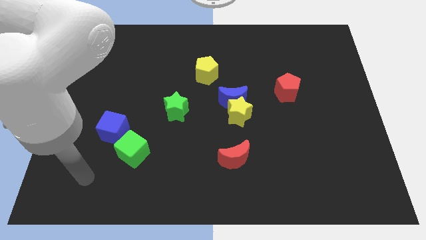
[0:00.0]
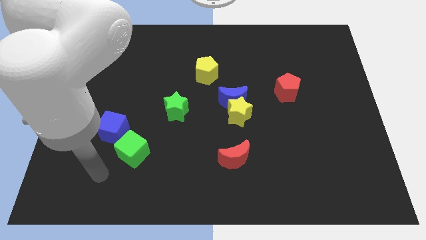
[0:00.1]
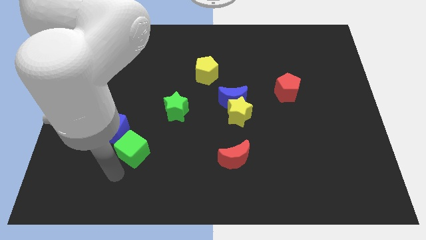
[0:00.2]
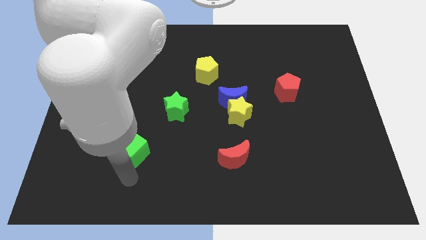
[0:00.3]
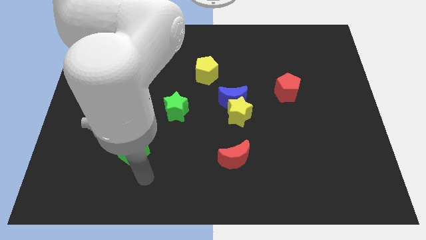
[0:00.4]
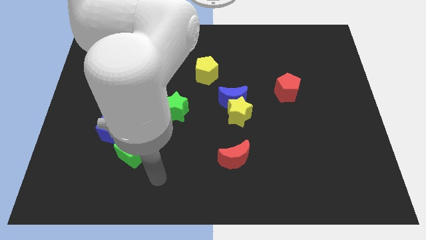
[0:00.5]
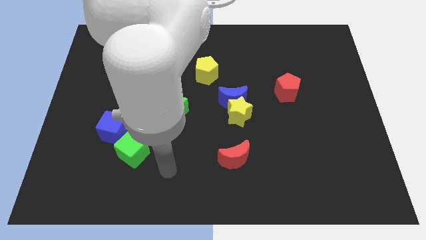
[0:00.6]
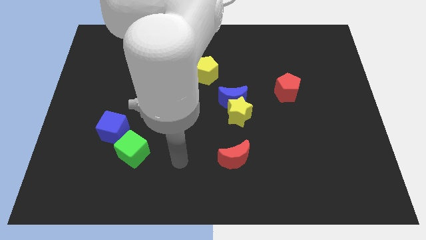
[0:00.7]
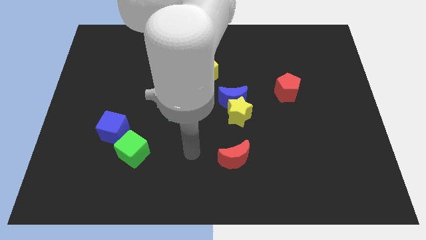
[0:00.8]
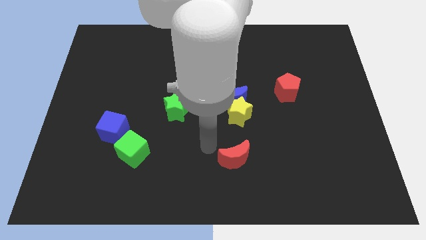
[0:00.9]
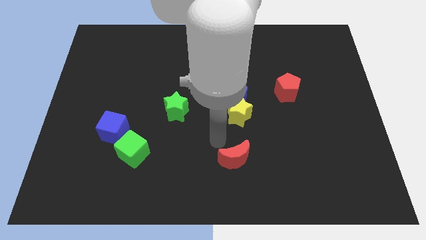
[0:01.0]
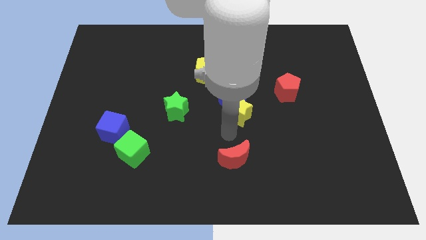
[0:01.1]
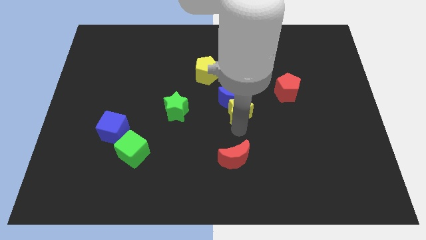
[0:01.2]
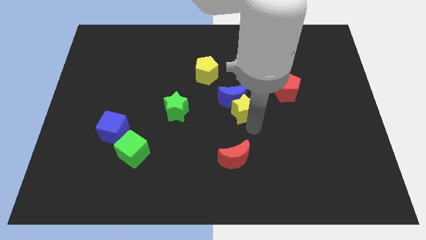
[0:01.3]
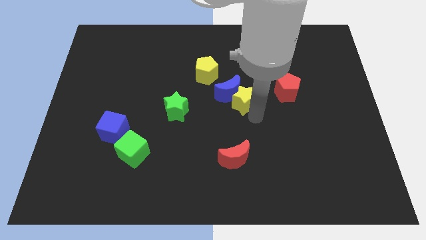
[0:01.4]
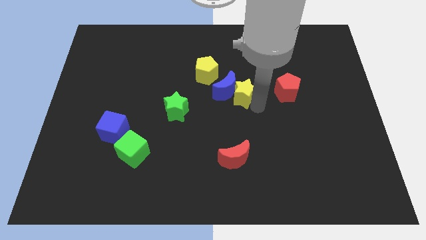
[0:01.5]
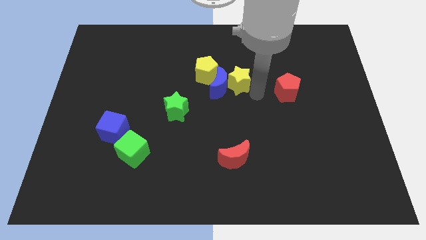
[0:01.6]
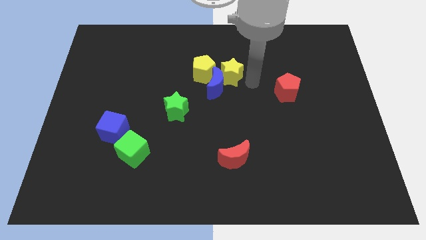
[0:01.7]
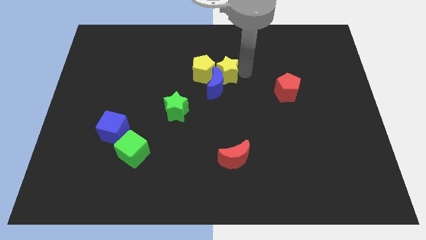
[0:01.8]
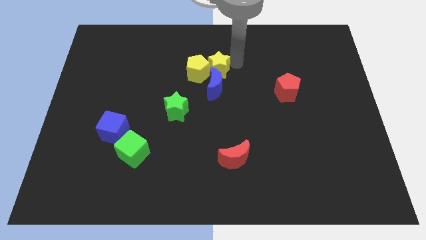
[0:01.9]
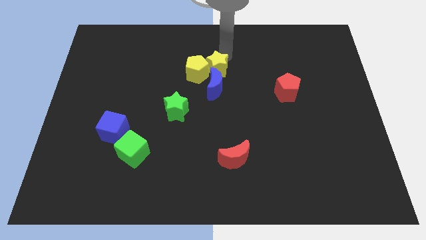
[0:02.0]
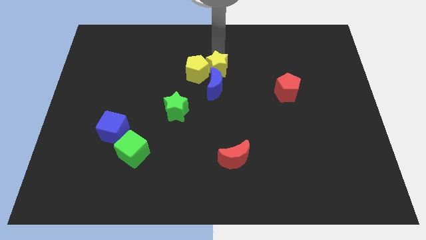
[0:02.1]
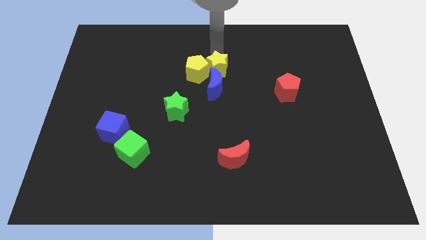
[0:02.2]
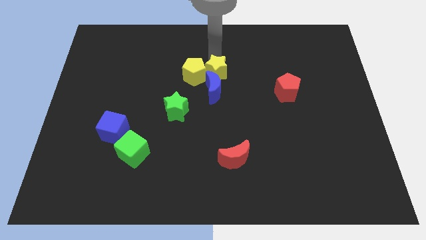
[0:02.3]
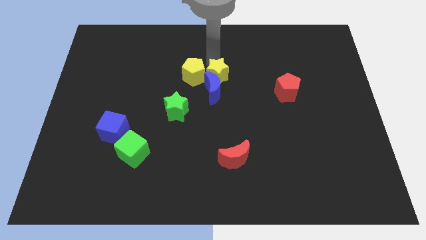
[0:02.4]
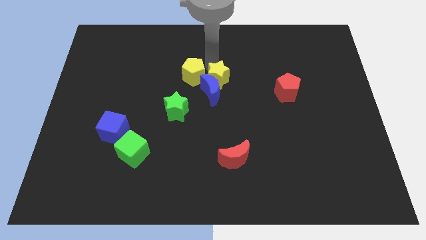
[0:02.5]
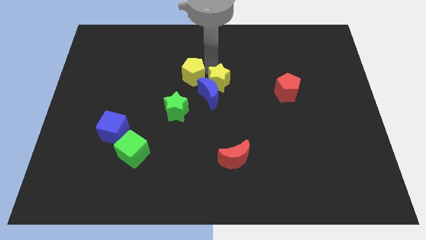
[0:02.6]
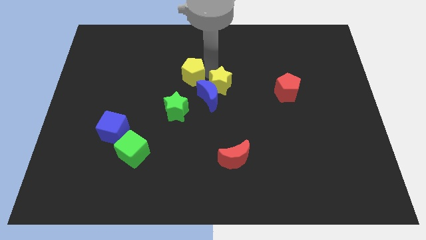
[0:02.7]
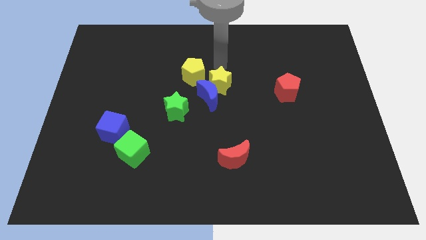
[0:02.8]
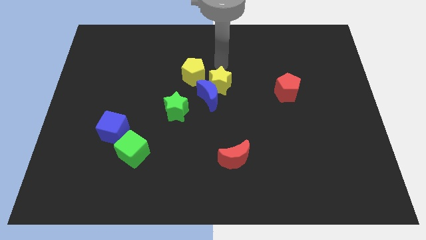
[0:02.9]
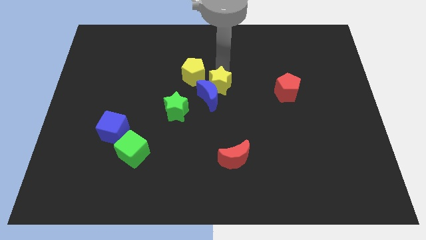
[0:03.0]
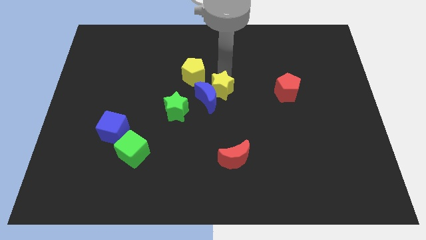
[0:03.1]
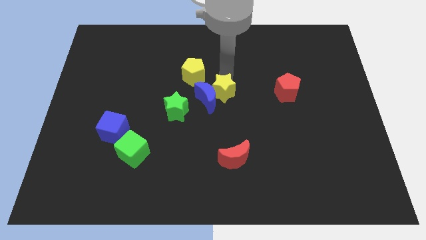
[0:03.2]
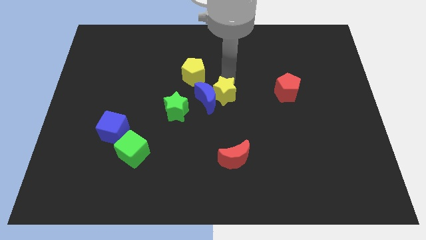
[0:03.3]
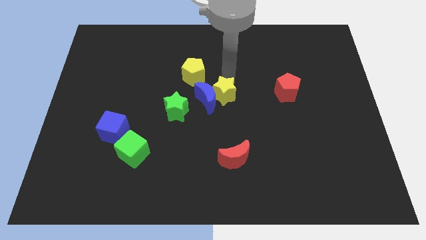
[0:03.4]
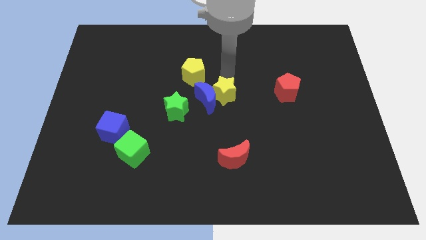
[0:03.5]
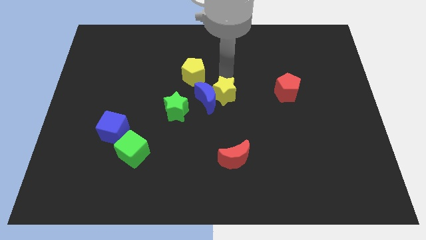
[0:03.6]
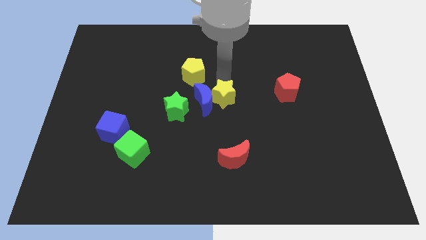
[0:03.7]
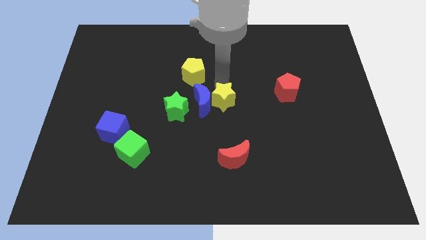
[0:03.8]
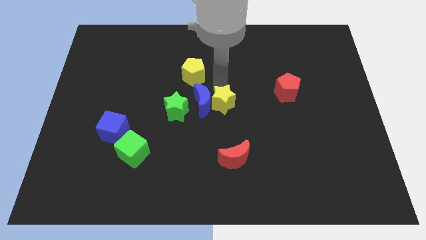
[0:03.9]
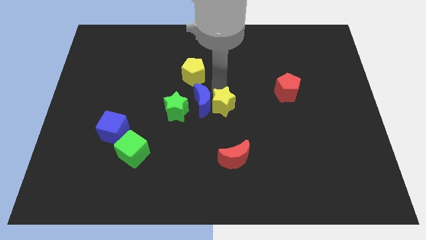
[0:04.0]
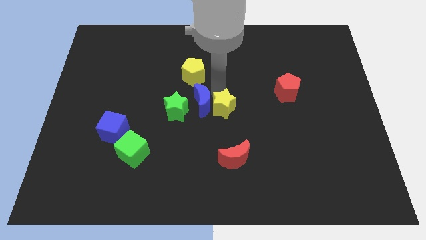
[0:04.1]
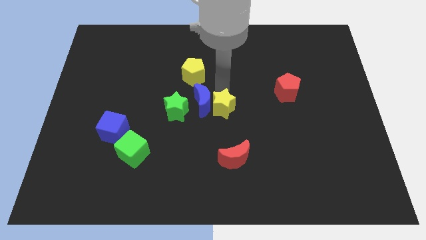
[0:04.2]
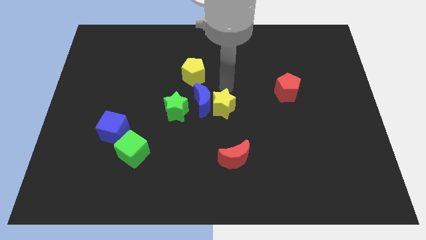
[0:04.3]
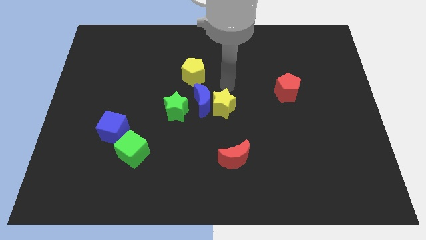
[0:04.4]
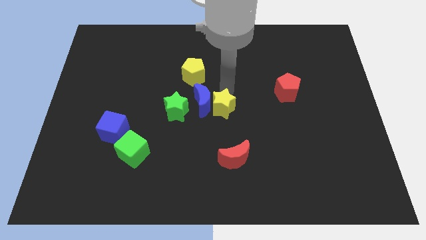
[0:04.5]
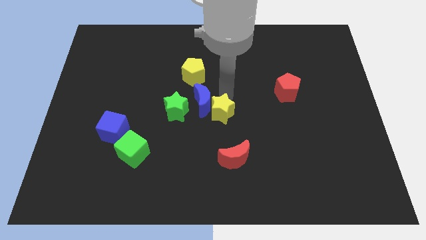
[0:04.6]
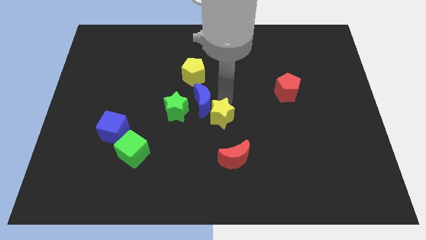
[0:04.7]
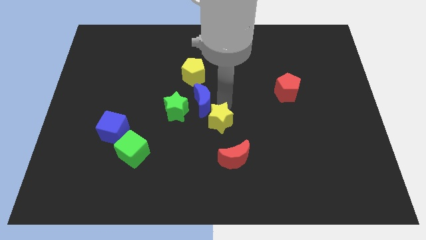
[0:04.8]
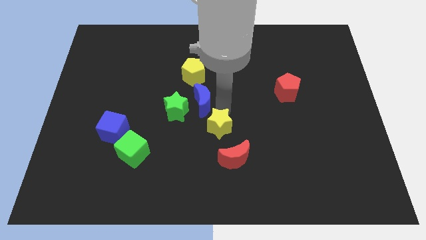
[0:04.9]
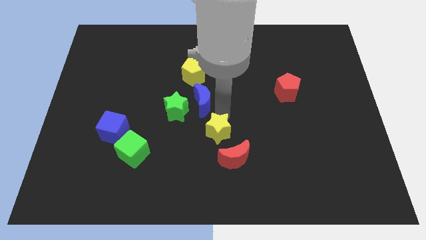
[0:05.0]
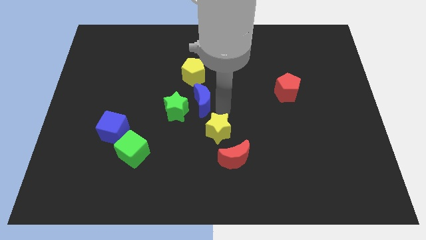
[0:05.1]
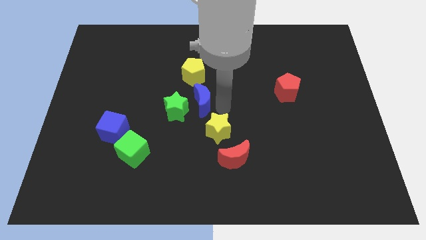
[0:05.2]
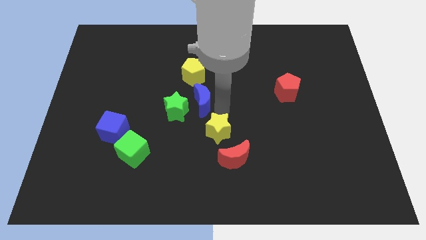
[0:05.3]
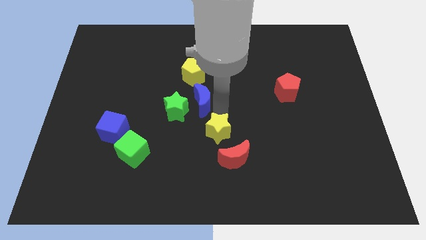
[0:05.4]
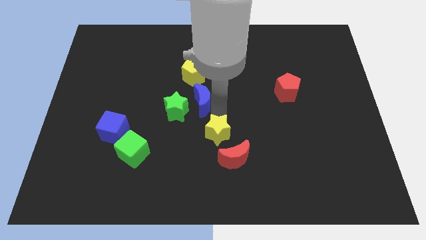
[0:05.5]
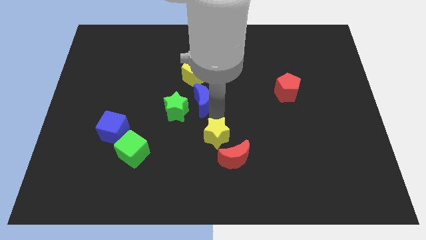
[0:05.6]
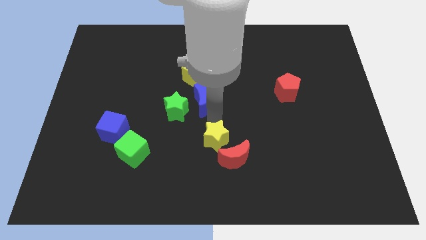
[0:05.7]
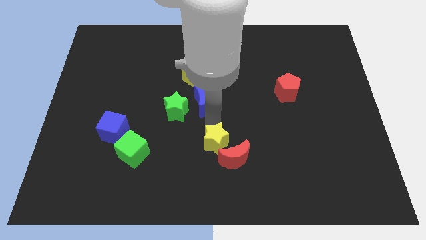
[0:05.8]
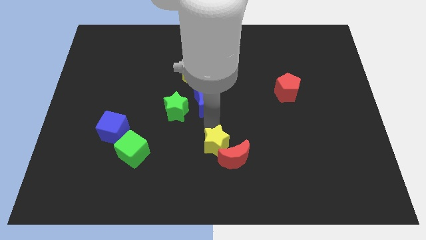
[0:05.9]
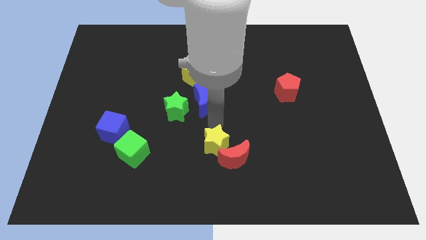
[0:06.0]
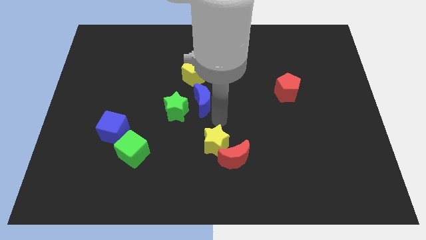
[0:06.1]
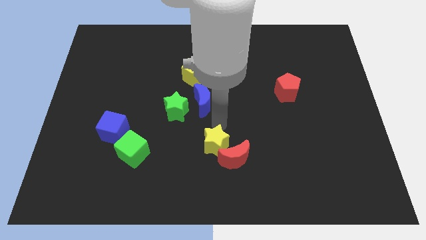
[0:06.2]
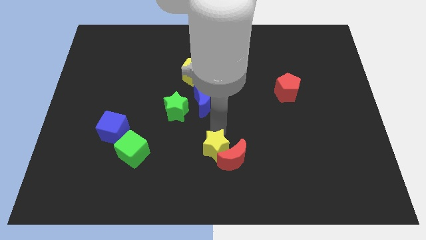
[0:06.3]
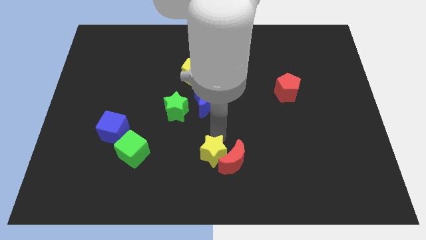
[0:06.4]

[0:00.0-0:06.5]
move the yellow star to the bottom side
